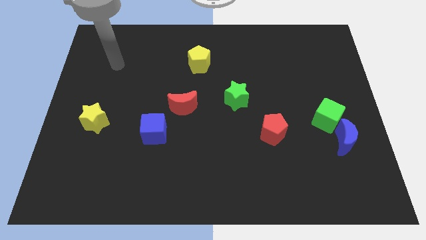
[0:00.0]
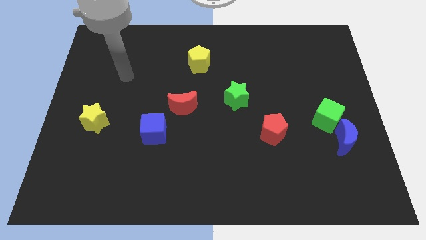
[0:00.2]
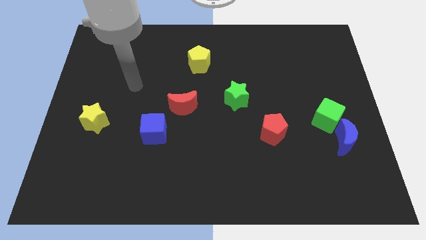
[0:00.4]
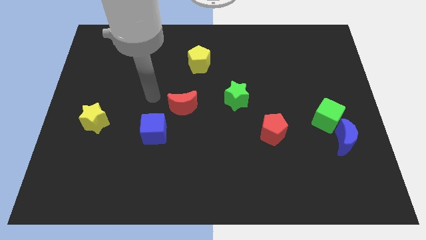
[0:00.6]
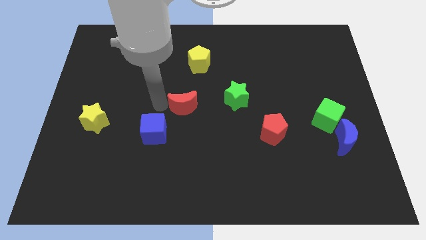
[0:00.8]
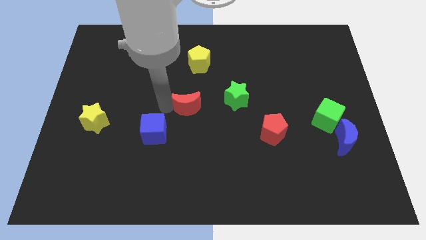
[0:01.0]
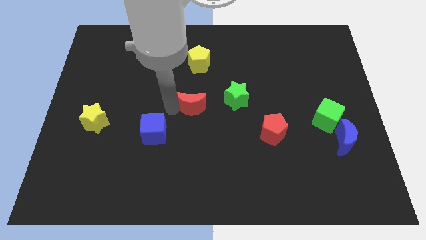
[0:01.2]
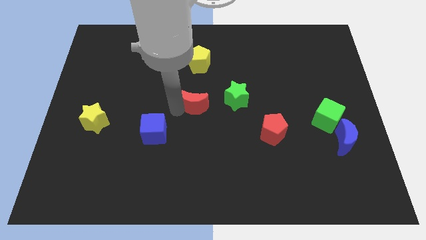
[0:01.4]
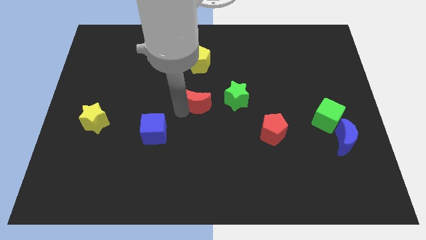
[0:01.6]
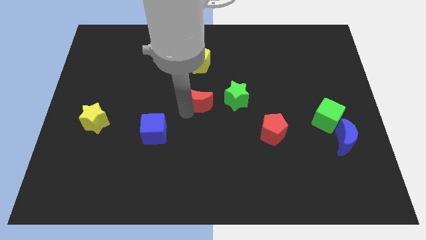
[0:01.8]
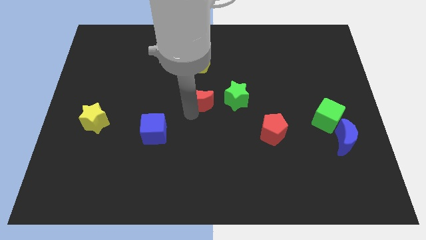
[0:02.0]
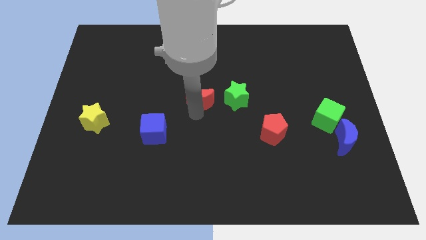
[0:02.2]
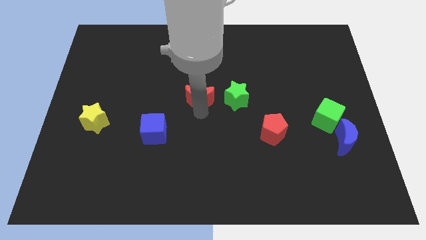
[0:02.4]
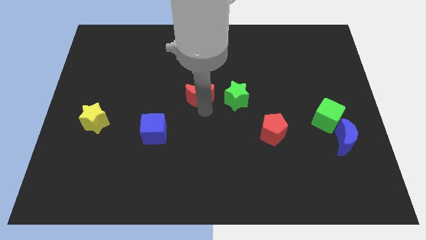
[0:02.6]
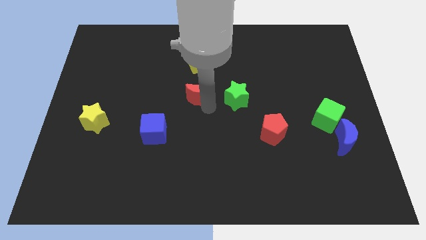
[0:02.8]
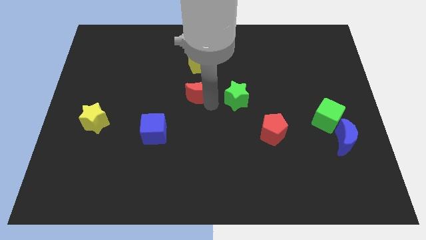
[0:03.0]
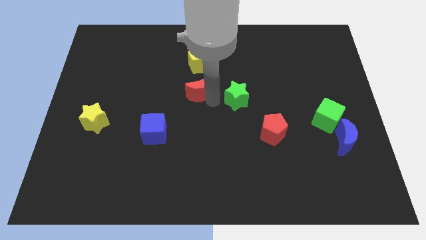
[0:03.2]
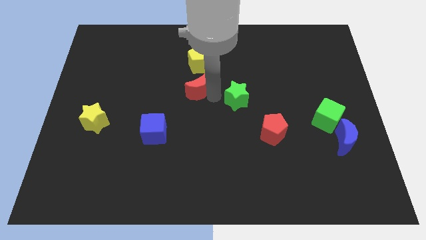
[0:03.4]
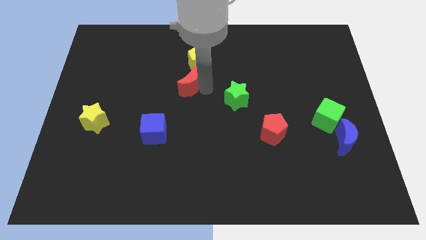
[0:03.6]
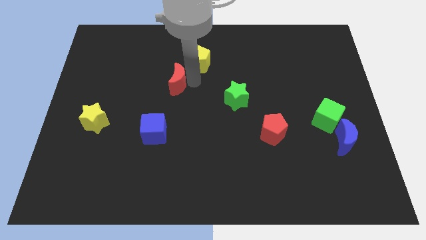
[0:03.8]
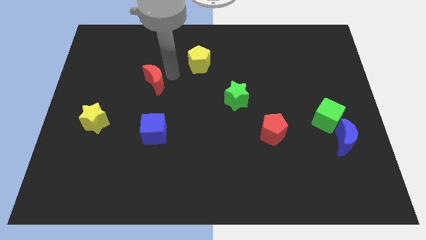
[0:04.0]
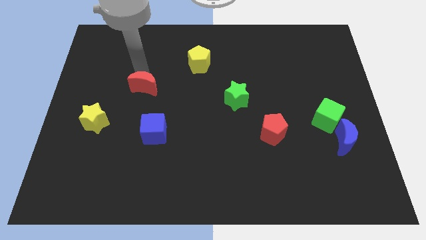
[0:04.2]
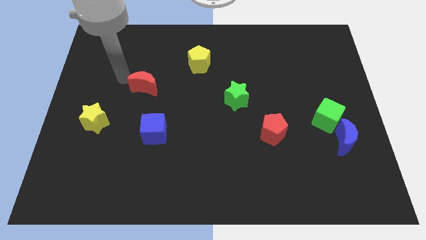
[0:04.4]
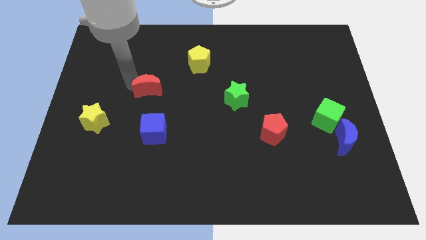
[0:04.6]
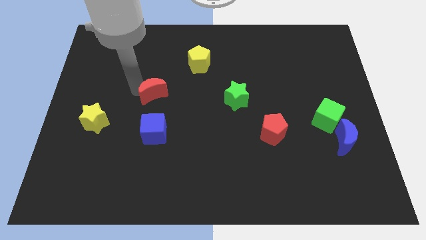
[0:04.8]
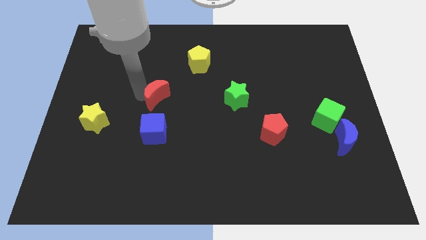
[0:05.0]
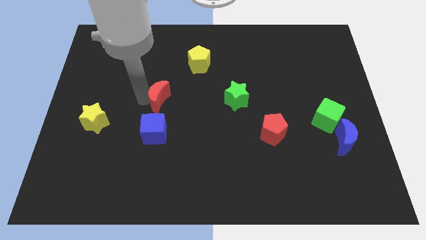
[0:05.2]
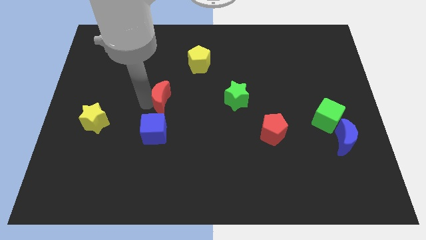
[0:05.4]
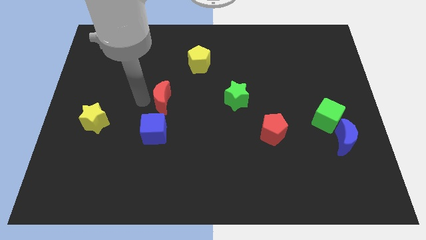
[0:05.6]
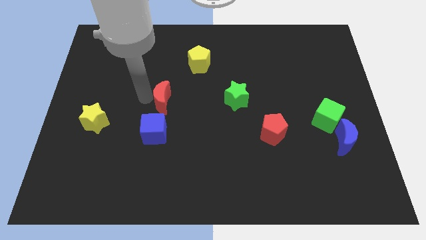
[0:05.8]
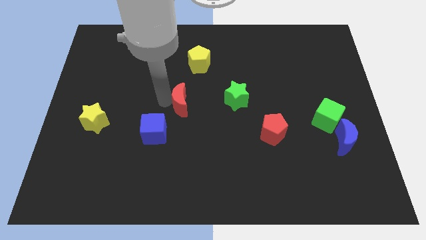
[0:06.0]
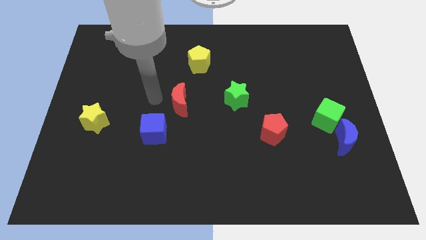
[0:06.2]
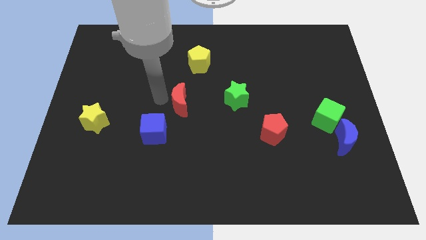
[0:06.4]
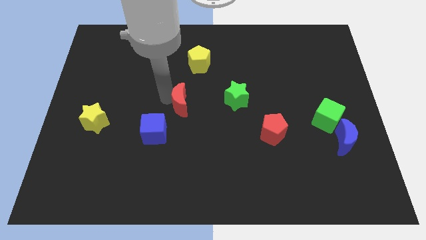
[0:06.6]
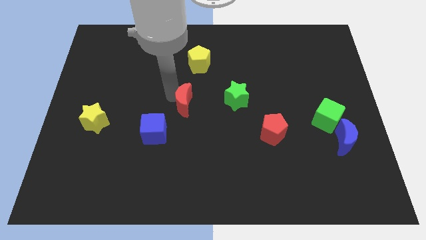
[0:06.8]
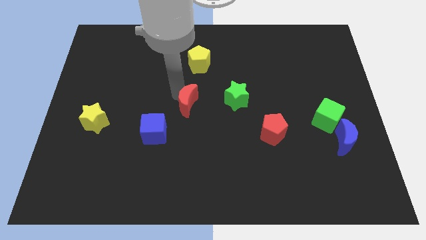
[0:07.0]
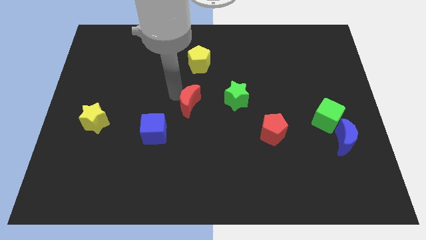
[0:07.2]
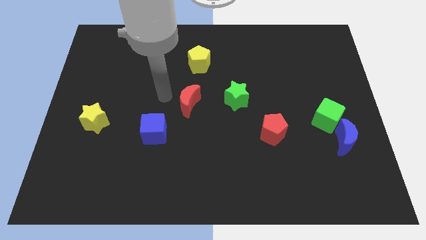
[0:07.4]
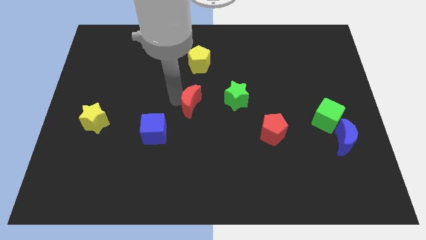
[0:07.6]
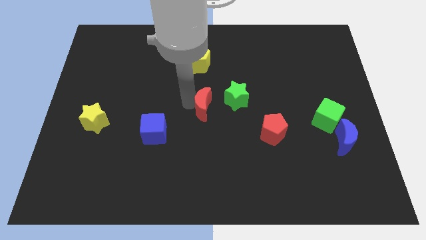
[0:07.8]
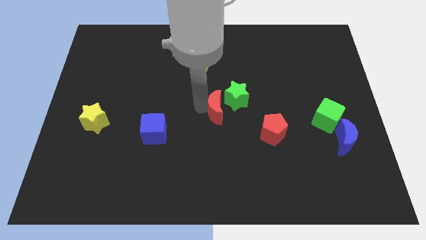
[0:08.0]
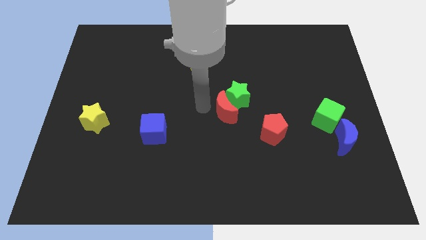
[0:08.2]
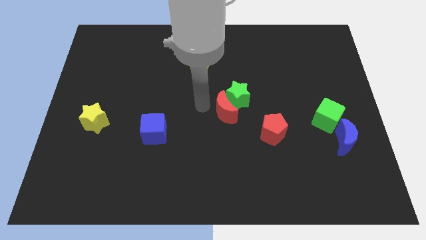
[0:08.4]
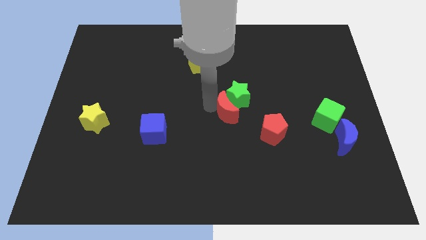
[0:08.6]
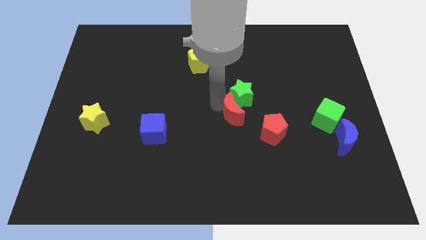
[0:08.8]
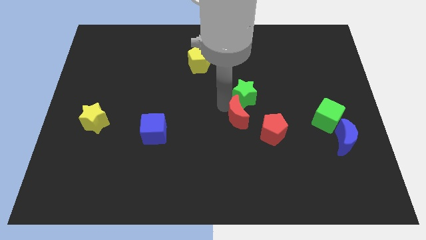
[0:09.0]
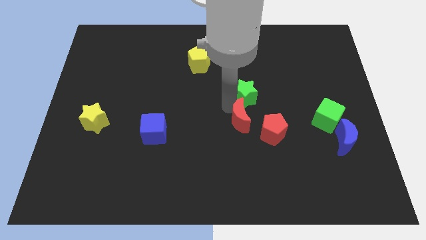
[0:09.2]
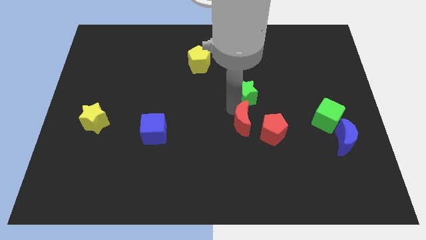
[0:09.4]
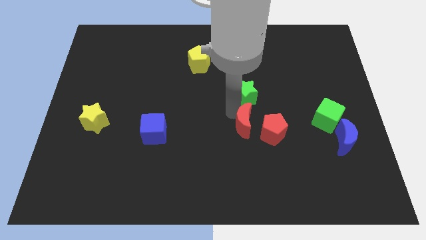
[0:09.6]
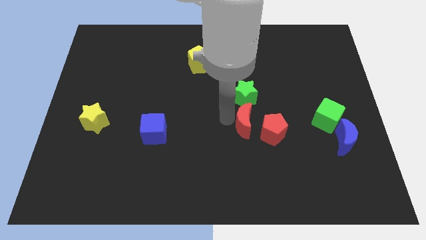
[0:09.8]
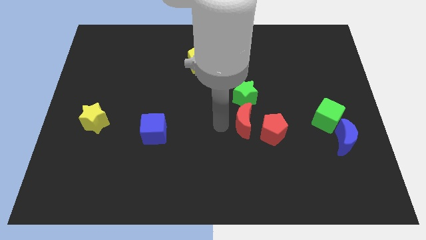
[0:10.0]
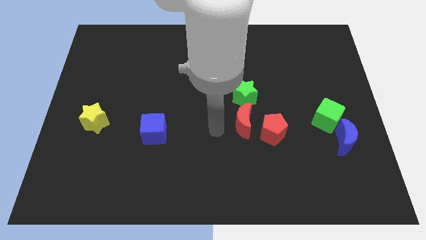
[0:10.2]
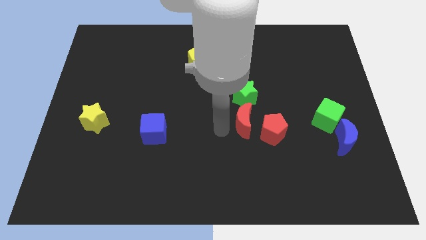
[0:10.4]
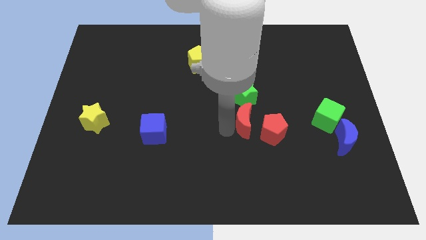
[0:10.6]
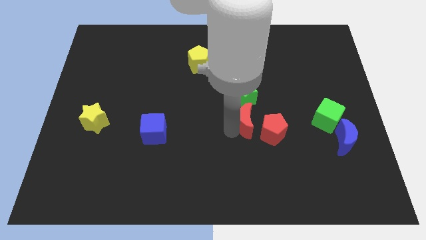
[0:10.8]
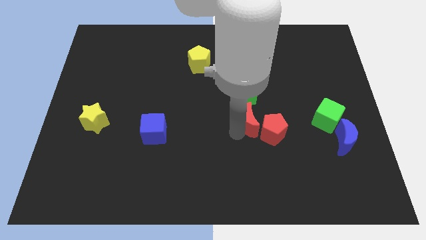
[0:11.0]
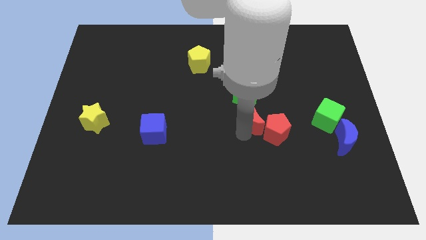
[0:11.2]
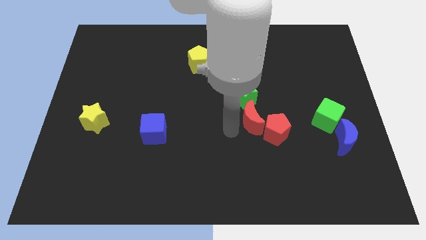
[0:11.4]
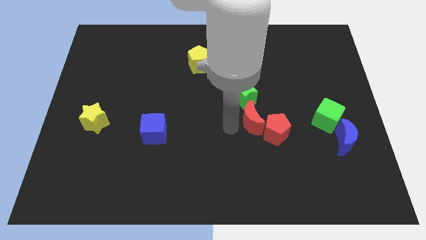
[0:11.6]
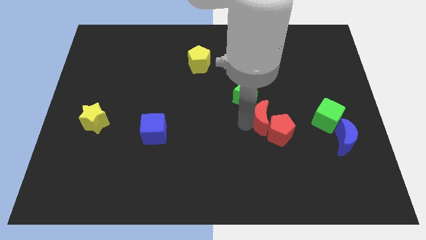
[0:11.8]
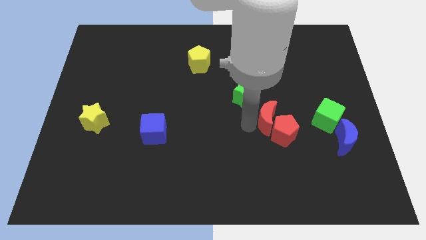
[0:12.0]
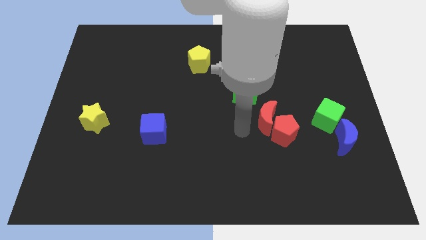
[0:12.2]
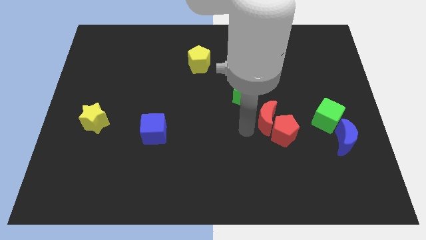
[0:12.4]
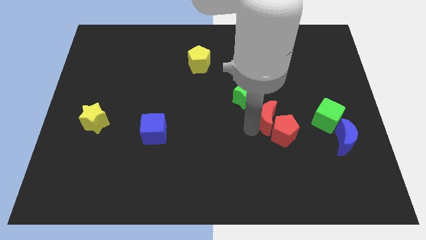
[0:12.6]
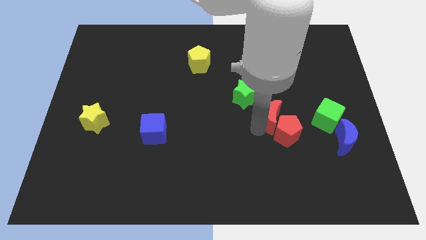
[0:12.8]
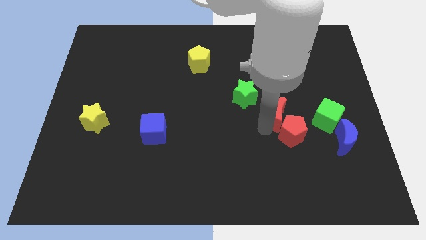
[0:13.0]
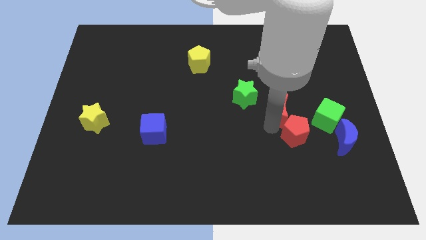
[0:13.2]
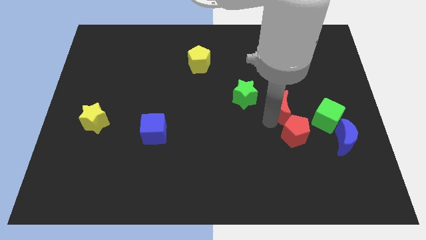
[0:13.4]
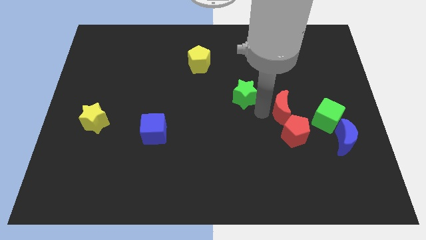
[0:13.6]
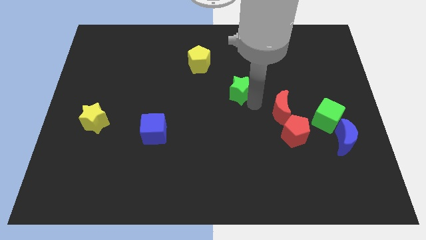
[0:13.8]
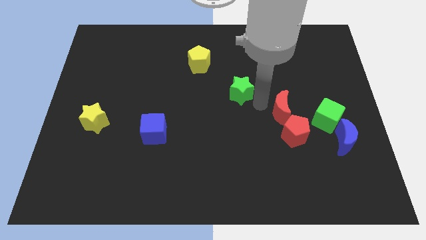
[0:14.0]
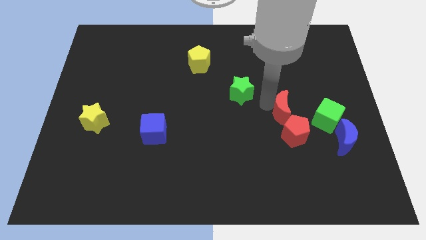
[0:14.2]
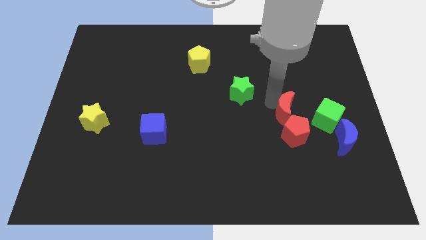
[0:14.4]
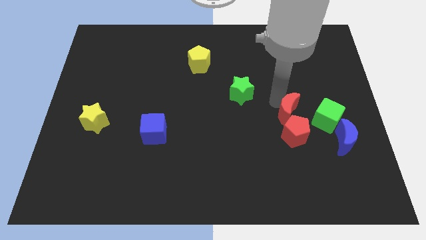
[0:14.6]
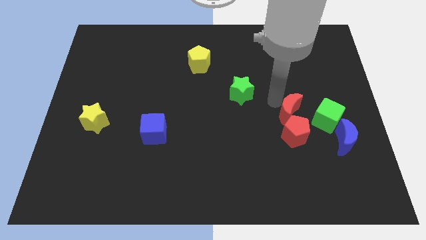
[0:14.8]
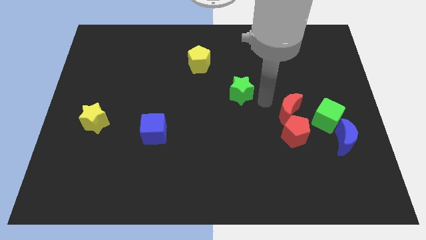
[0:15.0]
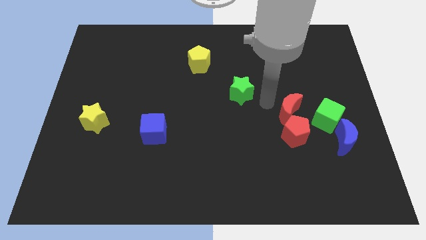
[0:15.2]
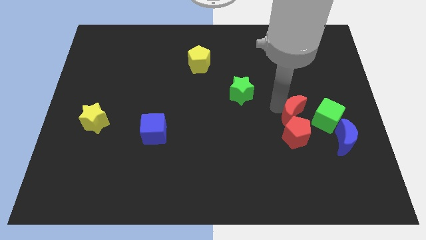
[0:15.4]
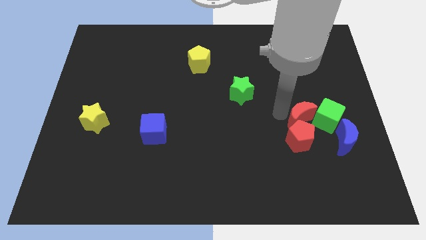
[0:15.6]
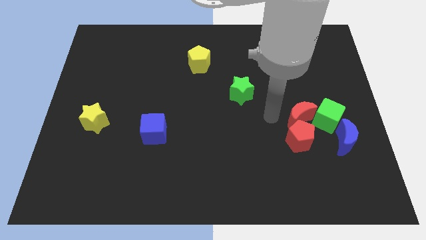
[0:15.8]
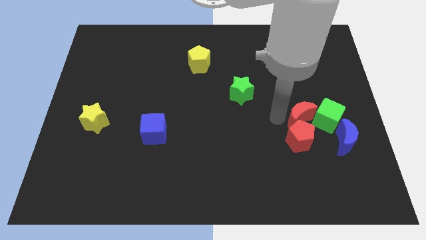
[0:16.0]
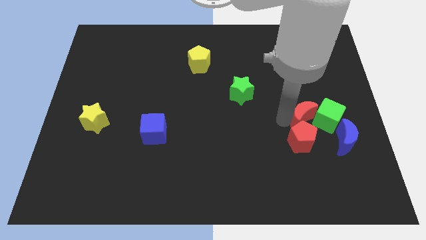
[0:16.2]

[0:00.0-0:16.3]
push the red moon close to the green cube
